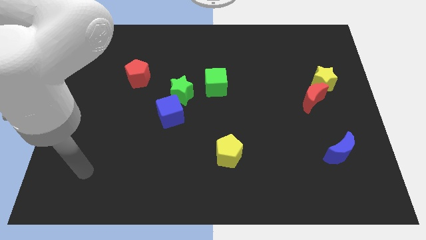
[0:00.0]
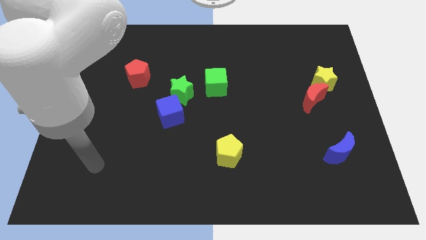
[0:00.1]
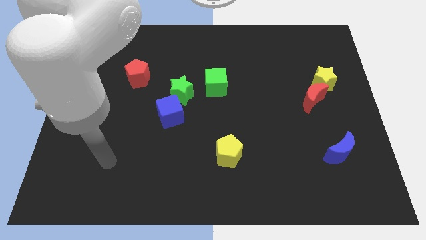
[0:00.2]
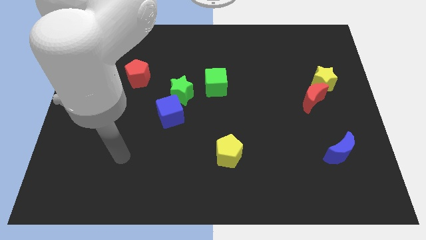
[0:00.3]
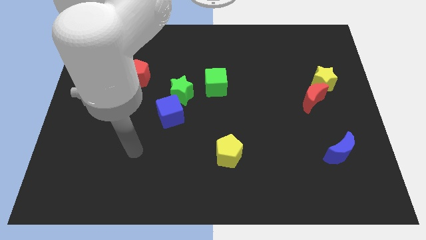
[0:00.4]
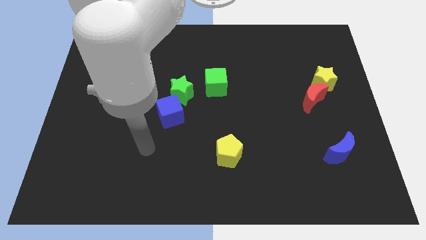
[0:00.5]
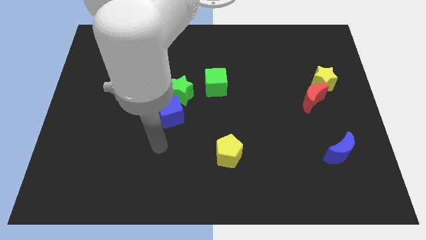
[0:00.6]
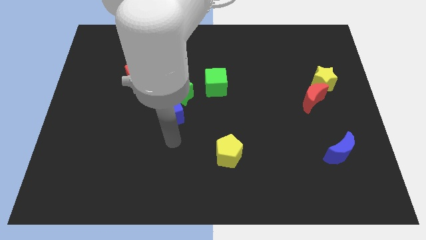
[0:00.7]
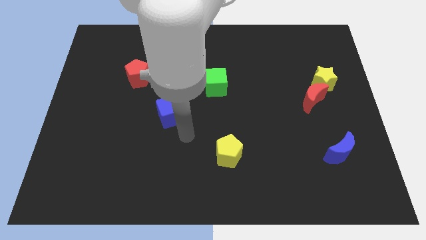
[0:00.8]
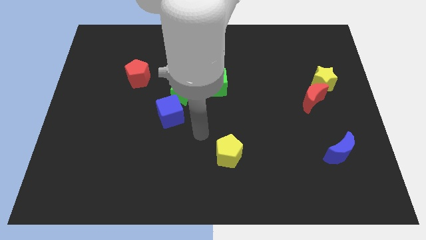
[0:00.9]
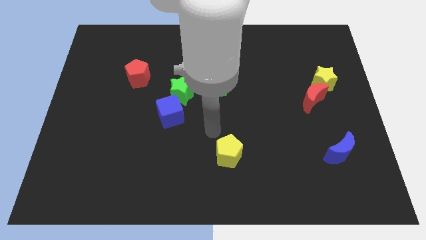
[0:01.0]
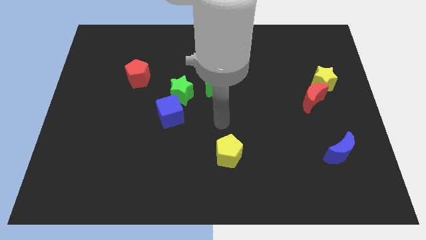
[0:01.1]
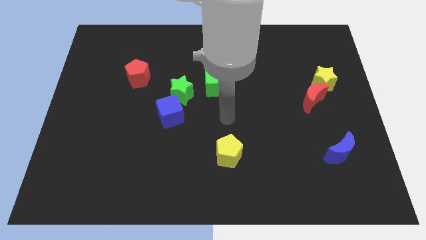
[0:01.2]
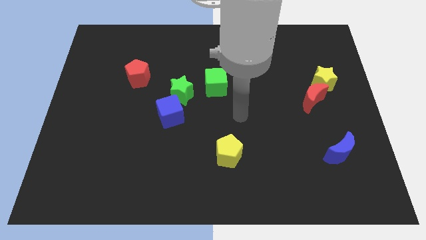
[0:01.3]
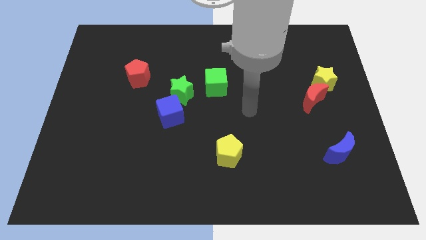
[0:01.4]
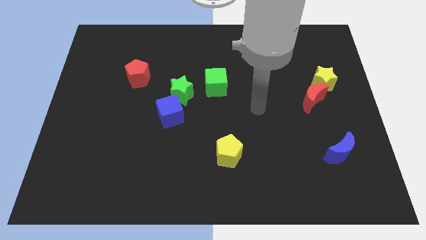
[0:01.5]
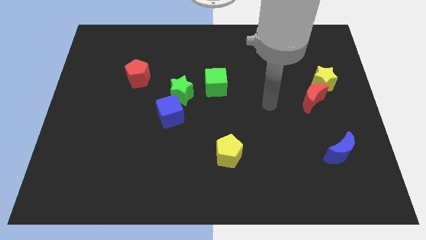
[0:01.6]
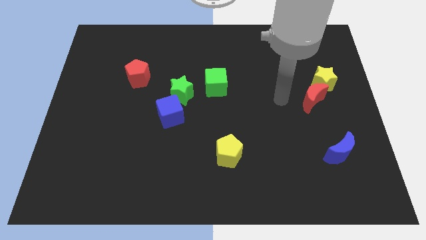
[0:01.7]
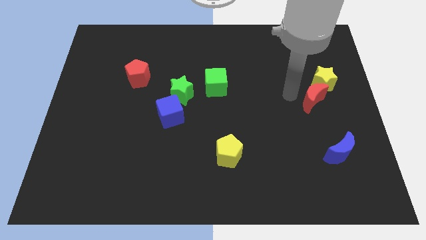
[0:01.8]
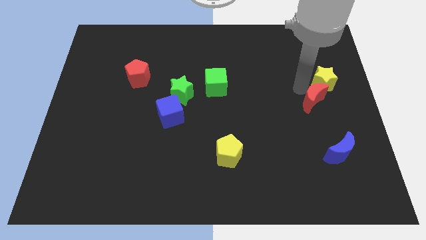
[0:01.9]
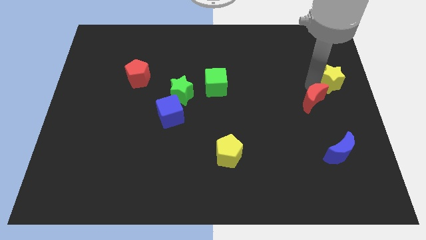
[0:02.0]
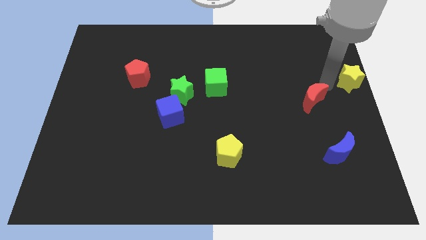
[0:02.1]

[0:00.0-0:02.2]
separate the red moon from the yellow star

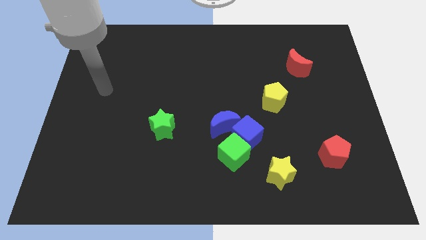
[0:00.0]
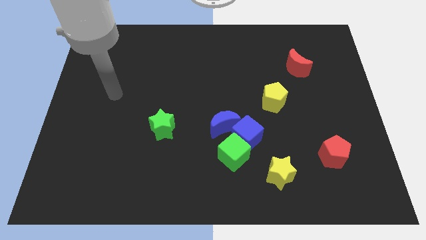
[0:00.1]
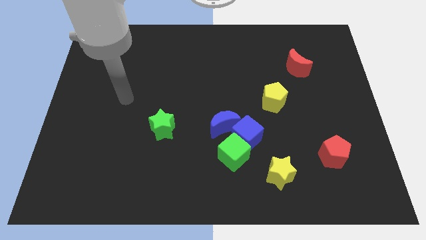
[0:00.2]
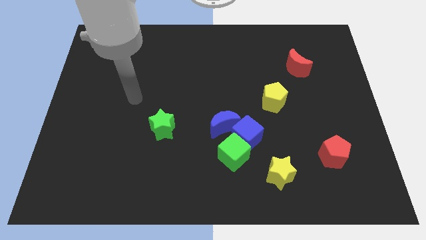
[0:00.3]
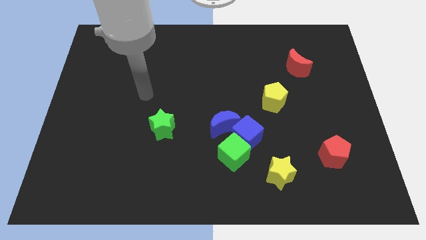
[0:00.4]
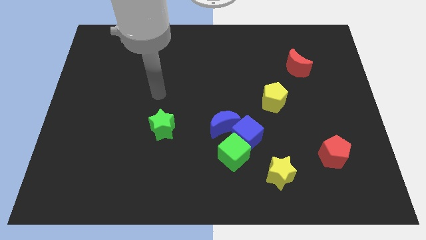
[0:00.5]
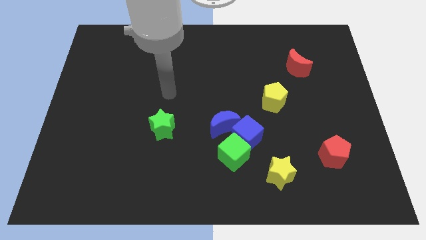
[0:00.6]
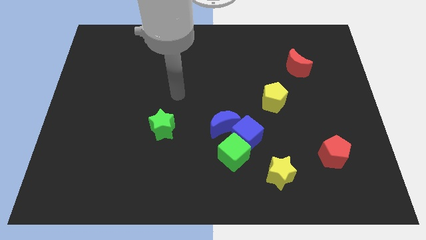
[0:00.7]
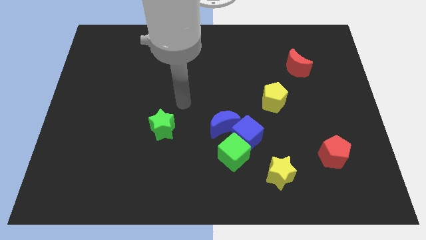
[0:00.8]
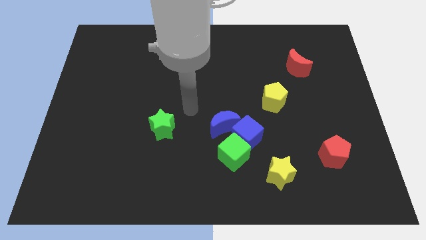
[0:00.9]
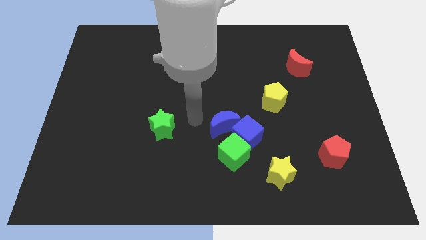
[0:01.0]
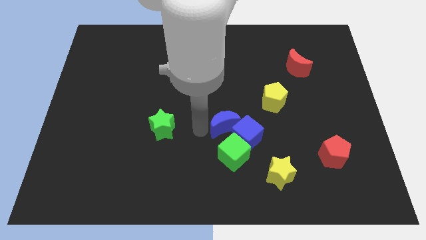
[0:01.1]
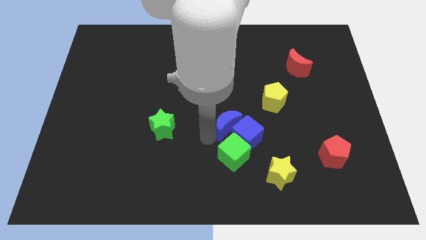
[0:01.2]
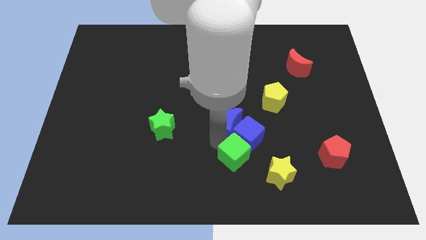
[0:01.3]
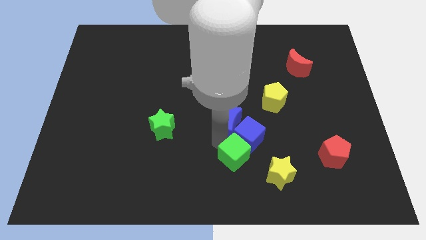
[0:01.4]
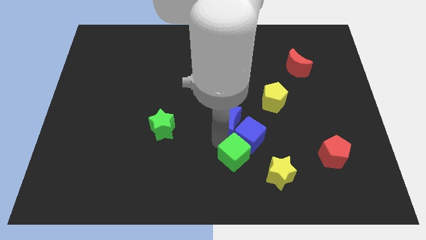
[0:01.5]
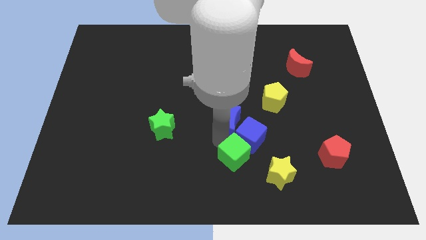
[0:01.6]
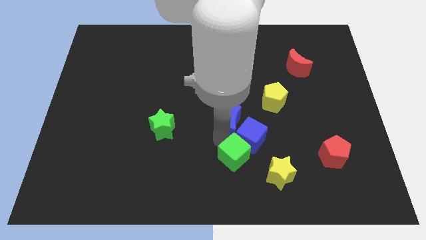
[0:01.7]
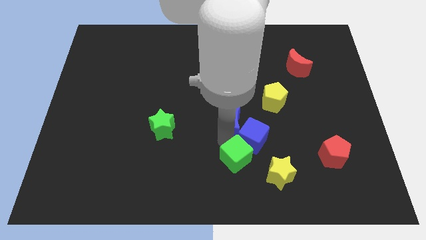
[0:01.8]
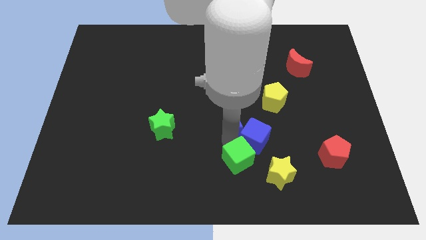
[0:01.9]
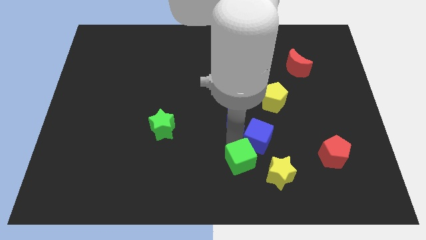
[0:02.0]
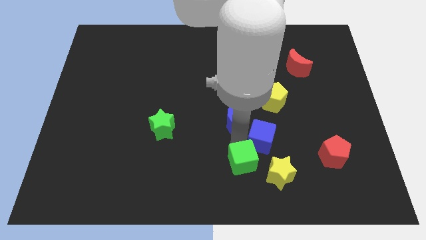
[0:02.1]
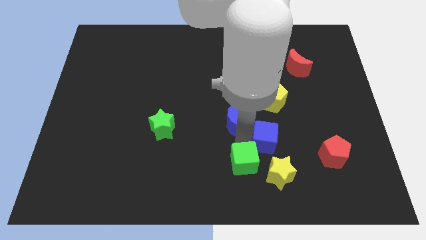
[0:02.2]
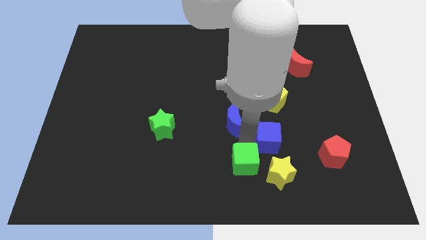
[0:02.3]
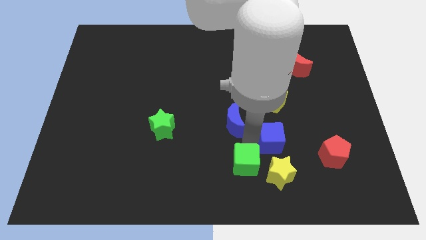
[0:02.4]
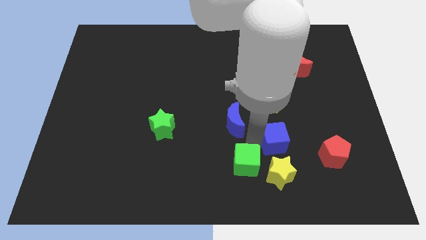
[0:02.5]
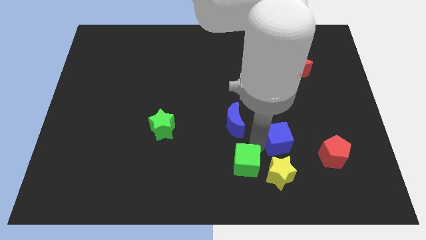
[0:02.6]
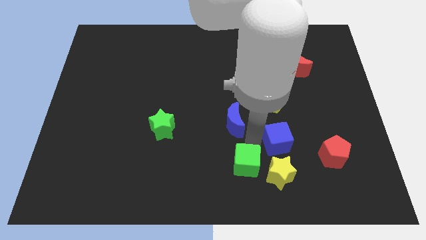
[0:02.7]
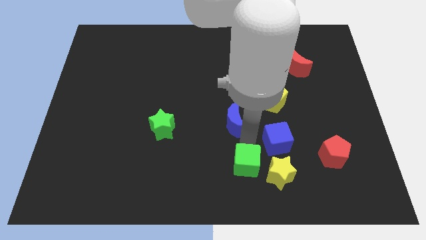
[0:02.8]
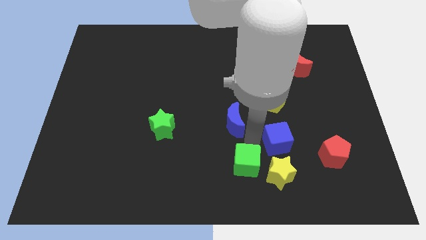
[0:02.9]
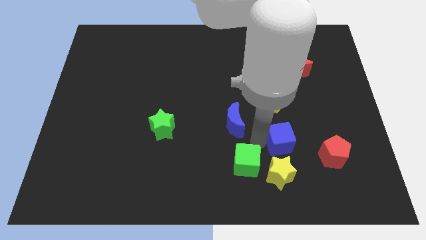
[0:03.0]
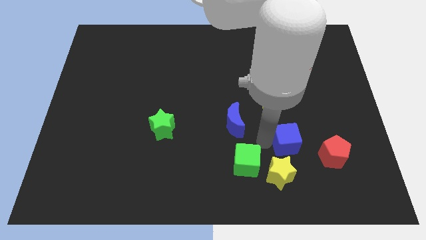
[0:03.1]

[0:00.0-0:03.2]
pull the blue cube apart from the green cube and blue moon

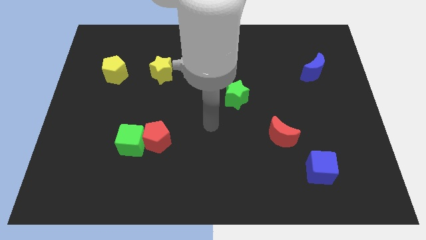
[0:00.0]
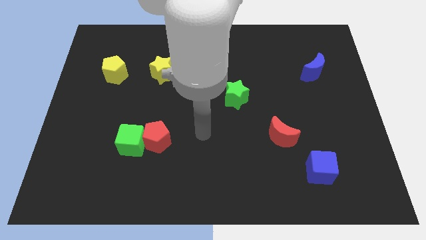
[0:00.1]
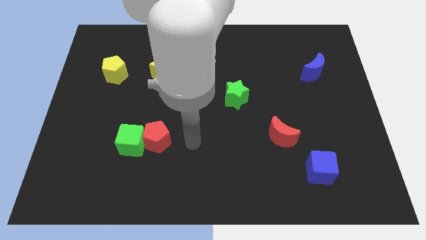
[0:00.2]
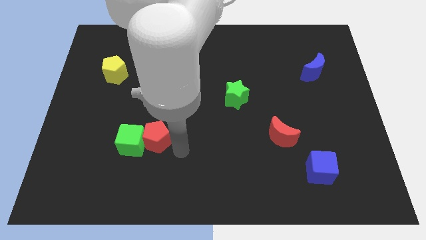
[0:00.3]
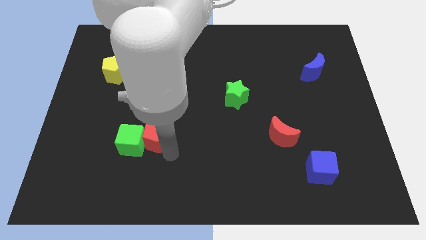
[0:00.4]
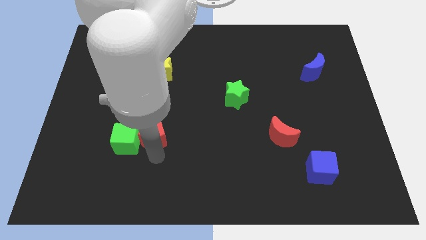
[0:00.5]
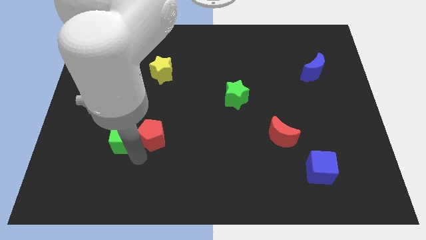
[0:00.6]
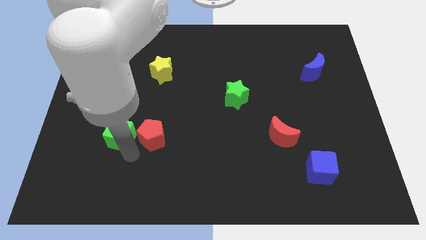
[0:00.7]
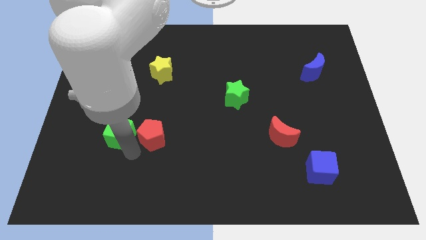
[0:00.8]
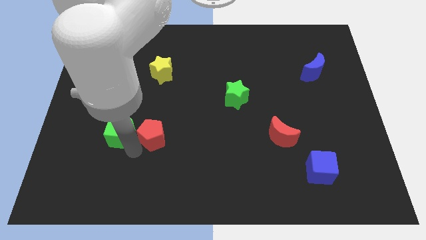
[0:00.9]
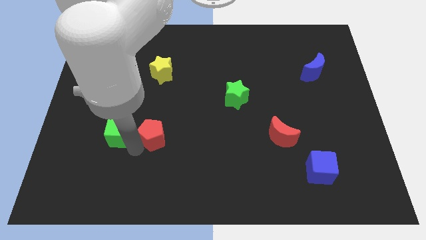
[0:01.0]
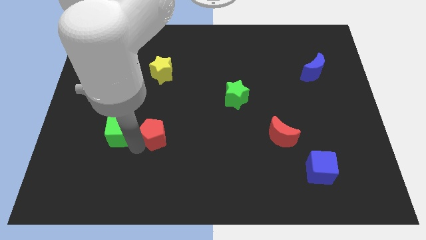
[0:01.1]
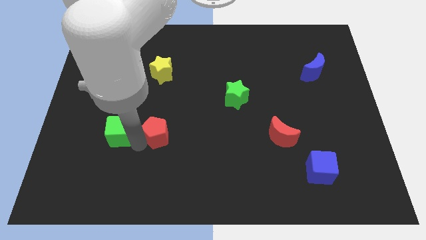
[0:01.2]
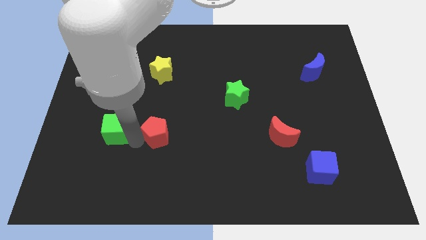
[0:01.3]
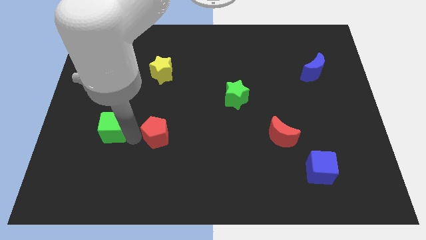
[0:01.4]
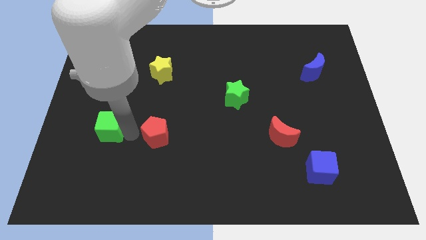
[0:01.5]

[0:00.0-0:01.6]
pull the red pentagon apart from the green cube

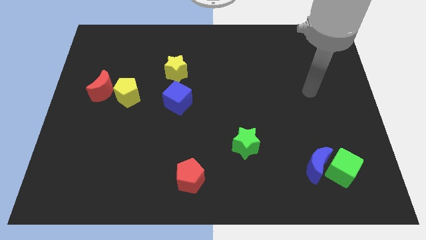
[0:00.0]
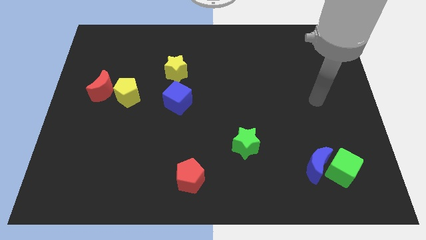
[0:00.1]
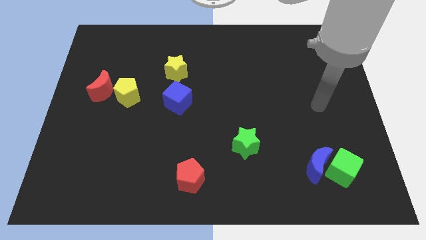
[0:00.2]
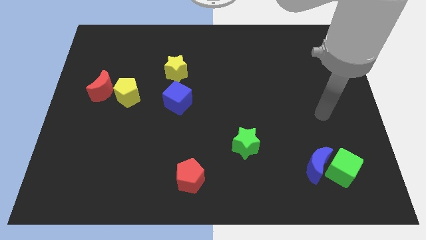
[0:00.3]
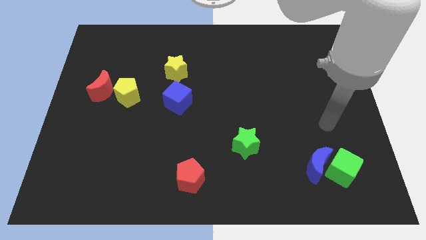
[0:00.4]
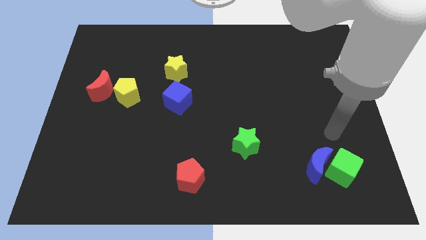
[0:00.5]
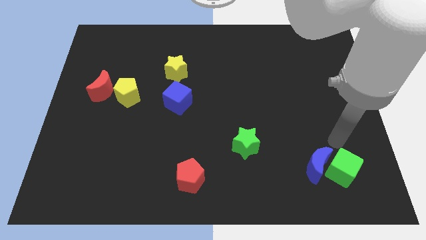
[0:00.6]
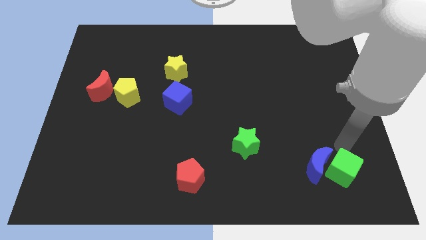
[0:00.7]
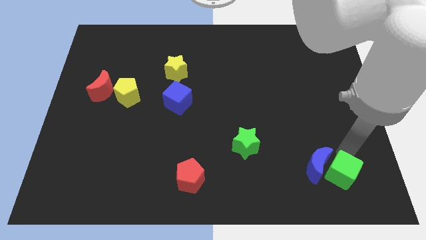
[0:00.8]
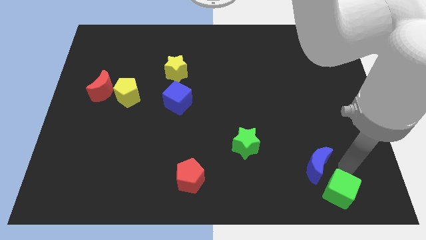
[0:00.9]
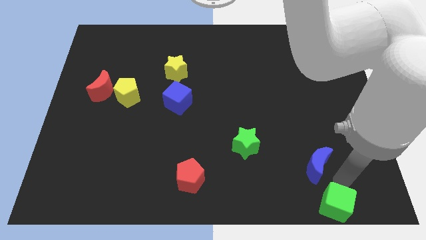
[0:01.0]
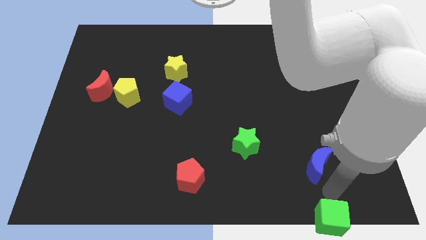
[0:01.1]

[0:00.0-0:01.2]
move the blue moon away from the green cube

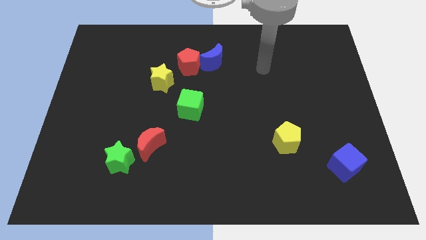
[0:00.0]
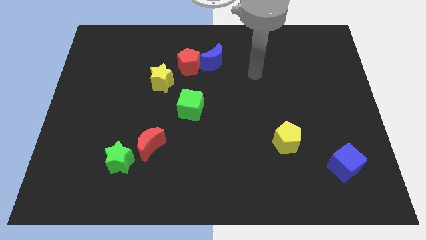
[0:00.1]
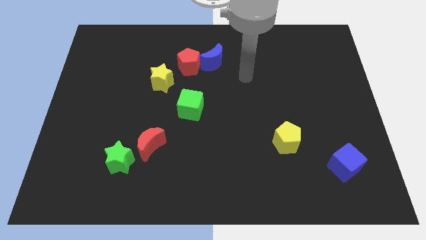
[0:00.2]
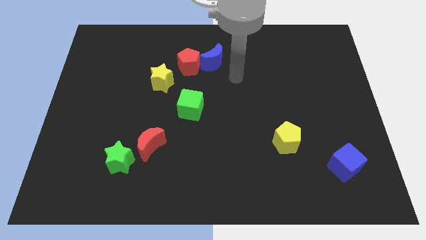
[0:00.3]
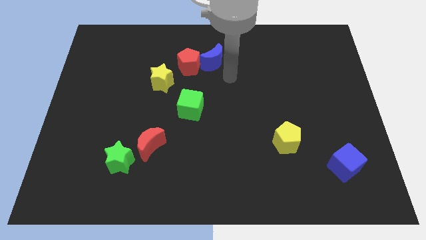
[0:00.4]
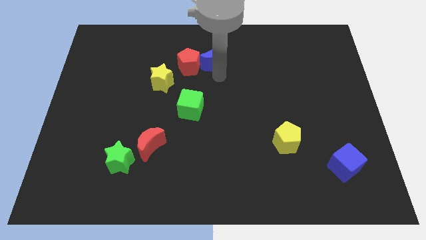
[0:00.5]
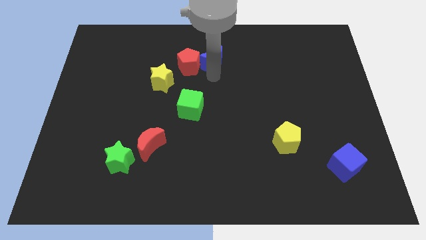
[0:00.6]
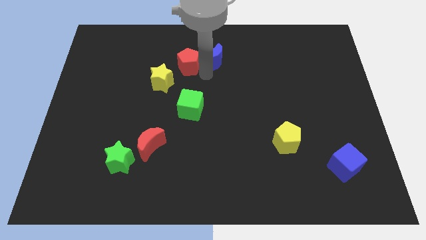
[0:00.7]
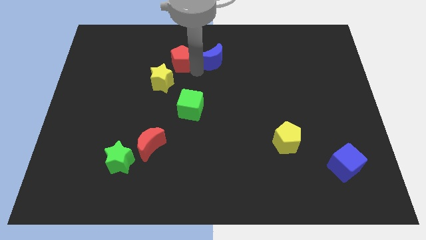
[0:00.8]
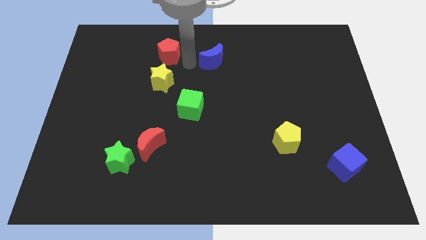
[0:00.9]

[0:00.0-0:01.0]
pull the blue moon apart from the red pentagon

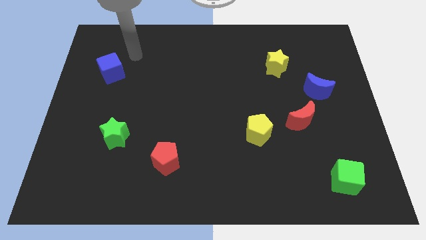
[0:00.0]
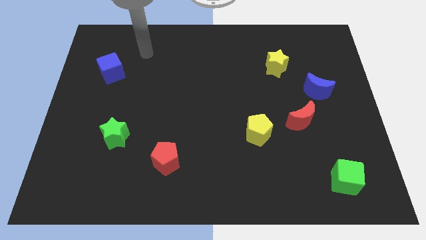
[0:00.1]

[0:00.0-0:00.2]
pull the red moon apart from the blue moon
